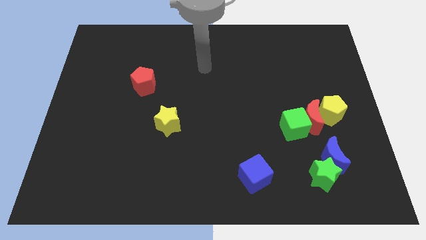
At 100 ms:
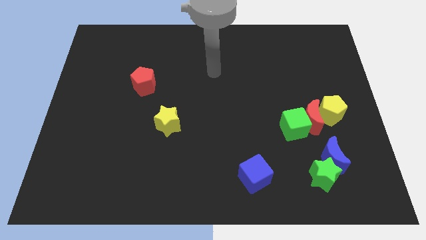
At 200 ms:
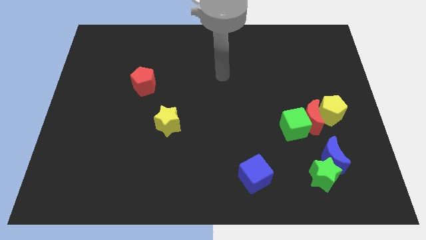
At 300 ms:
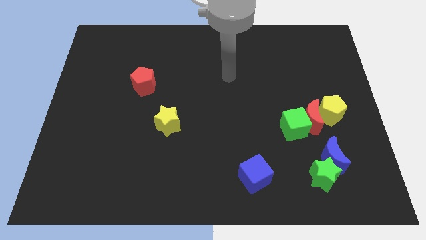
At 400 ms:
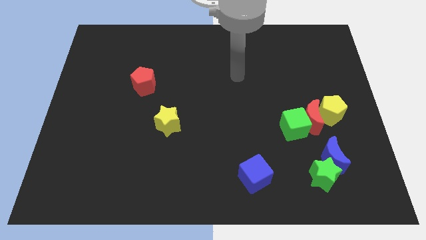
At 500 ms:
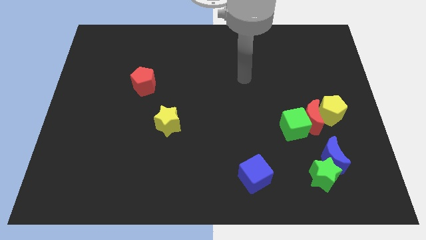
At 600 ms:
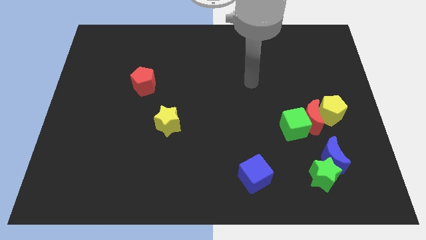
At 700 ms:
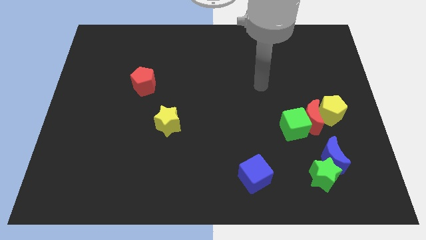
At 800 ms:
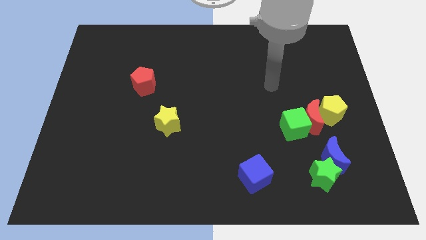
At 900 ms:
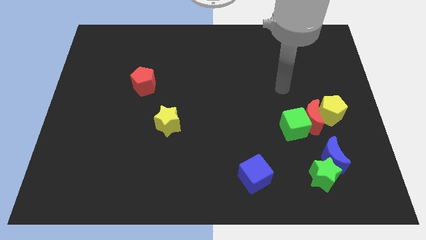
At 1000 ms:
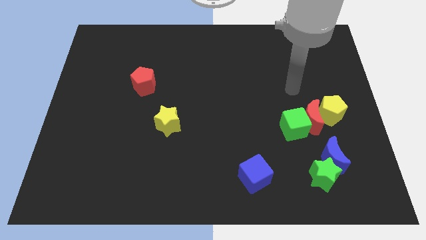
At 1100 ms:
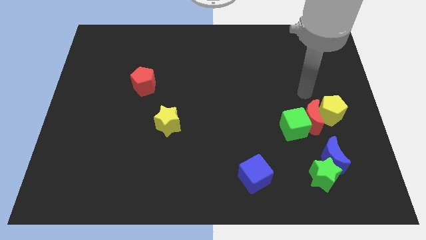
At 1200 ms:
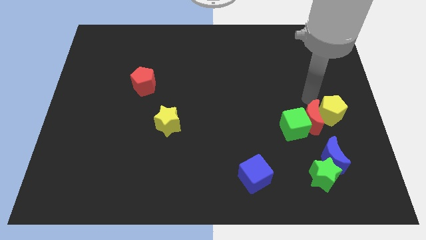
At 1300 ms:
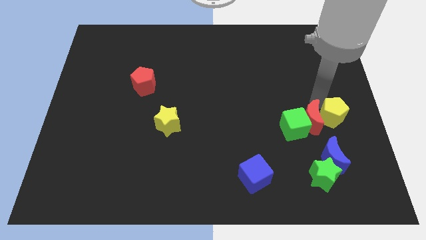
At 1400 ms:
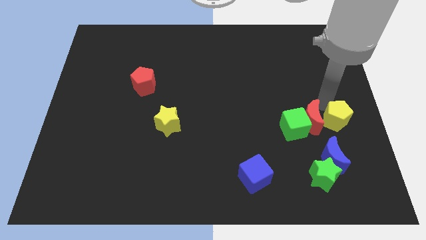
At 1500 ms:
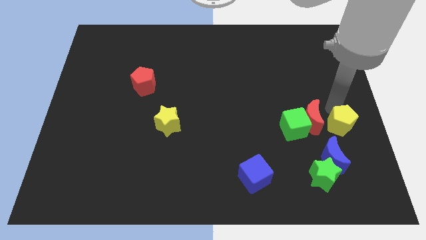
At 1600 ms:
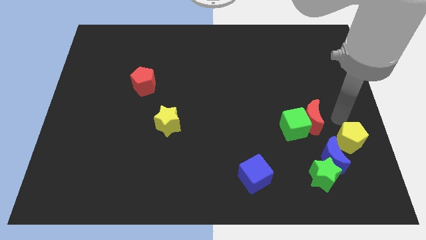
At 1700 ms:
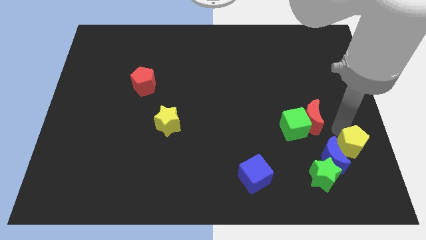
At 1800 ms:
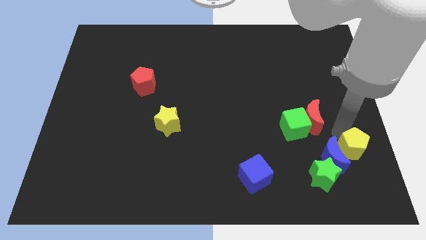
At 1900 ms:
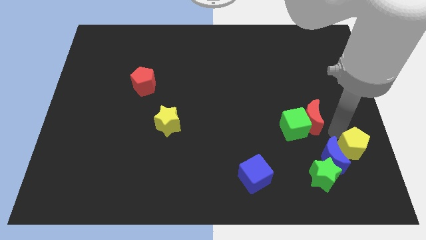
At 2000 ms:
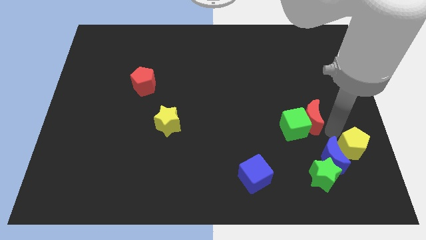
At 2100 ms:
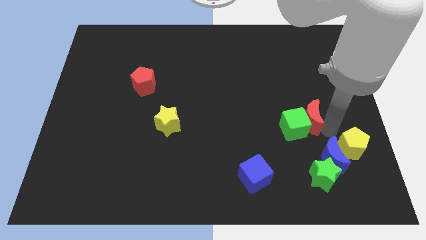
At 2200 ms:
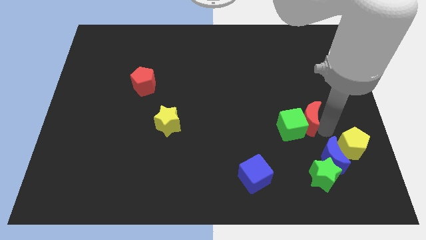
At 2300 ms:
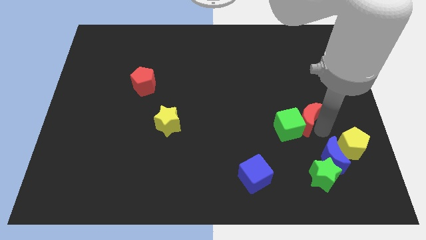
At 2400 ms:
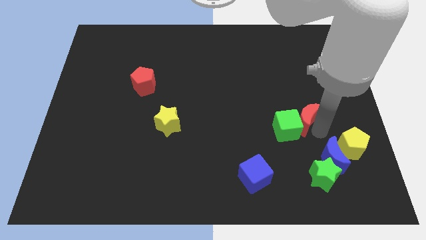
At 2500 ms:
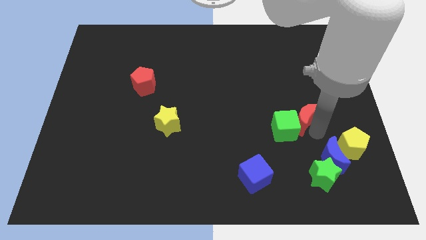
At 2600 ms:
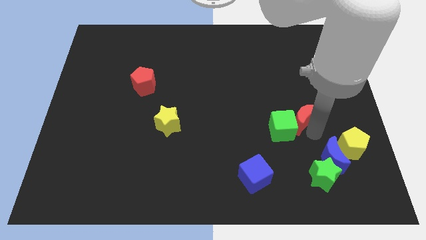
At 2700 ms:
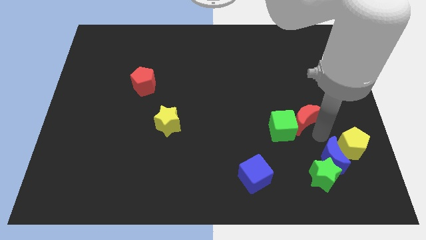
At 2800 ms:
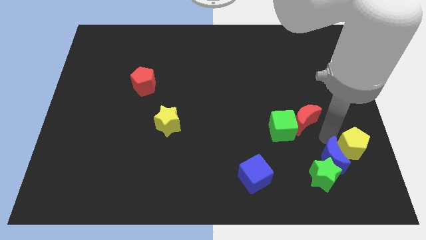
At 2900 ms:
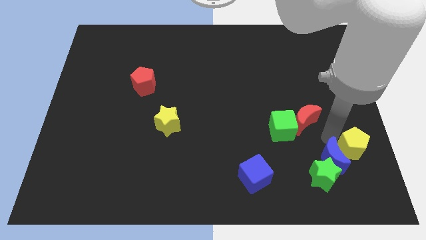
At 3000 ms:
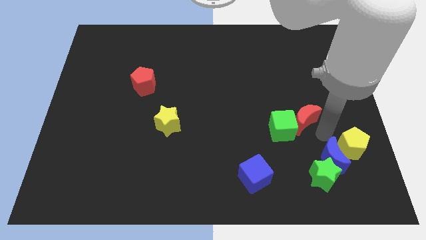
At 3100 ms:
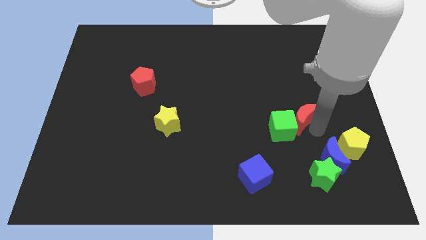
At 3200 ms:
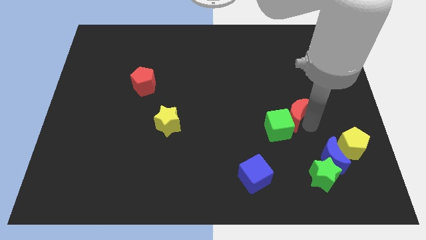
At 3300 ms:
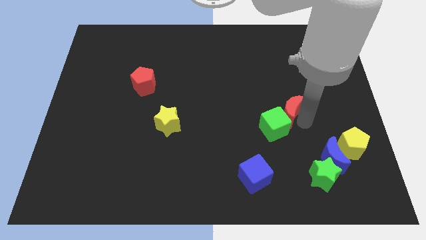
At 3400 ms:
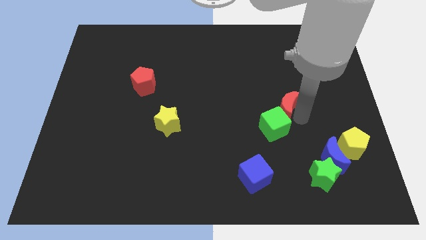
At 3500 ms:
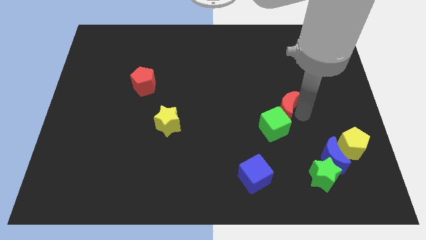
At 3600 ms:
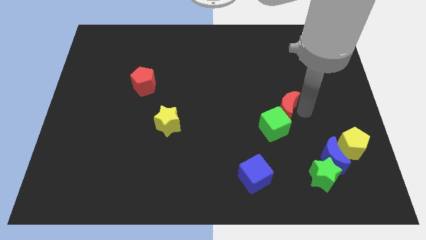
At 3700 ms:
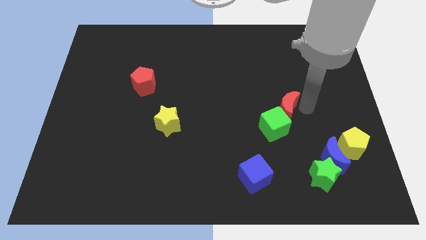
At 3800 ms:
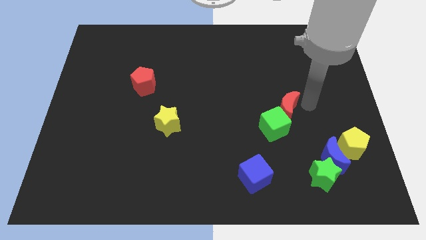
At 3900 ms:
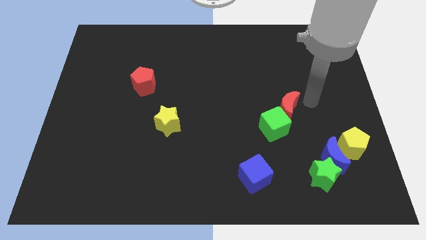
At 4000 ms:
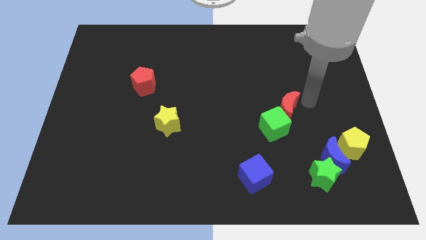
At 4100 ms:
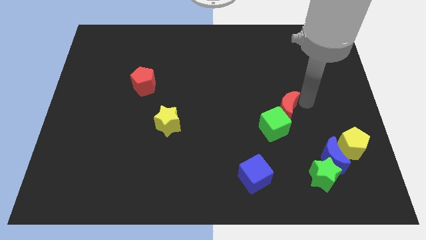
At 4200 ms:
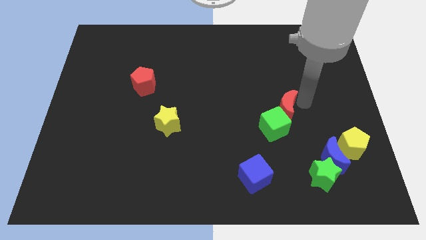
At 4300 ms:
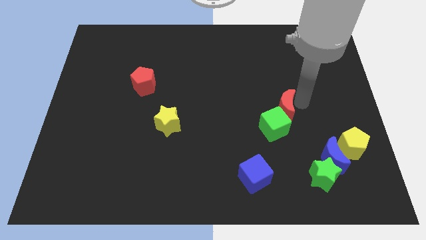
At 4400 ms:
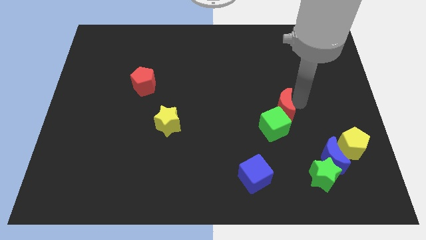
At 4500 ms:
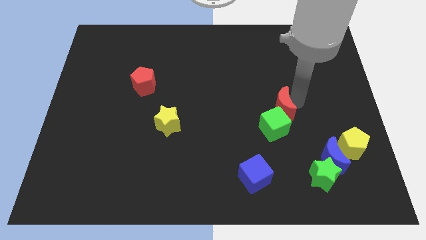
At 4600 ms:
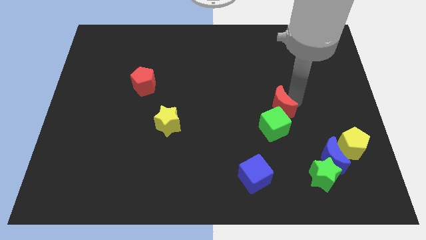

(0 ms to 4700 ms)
separate the red moon from the green cube and yellow pentagon

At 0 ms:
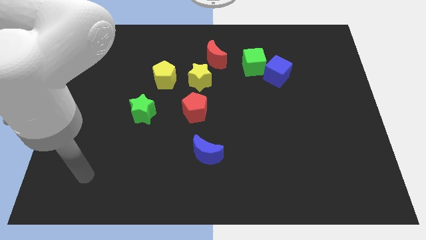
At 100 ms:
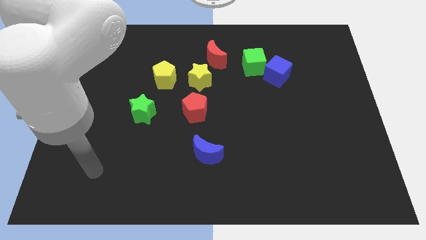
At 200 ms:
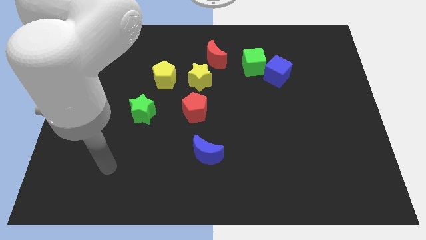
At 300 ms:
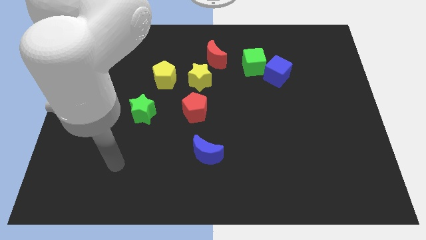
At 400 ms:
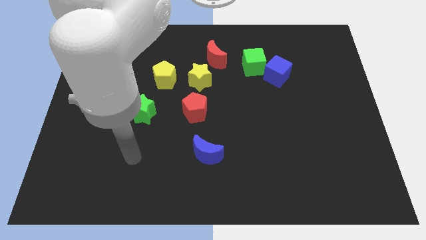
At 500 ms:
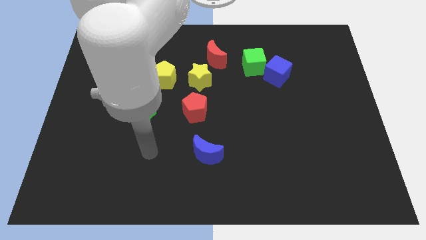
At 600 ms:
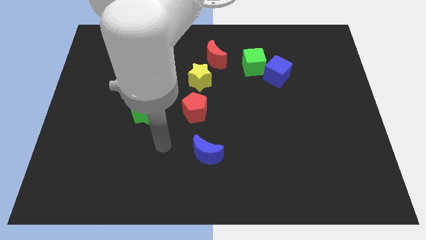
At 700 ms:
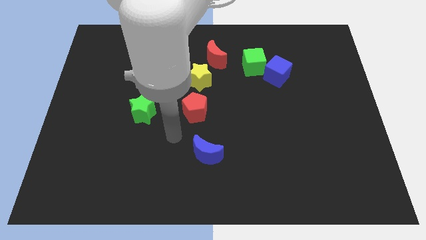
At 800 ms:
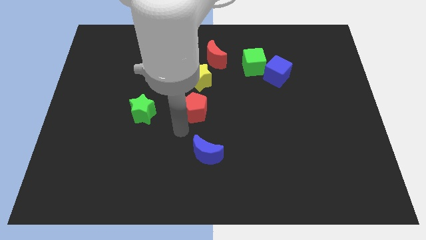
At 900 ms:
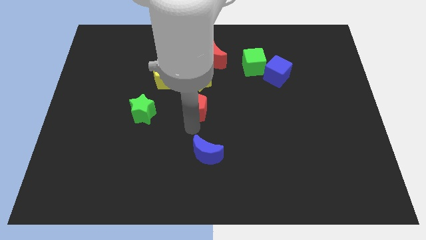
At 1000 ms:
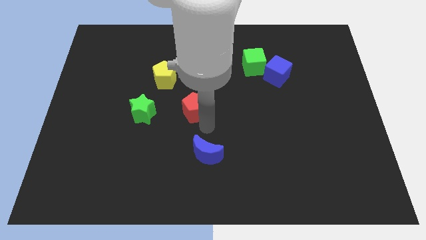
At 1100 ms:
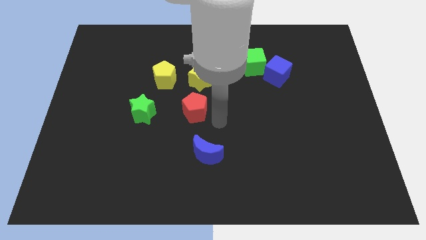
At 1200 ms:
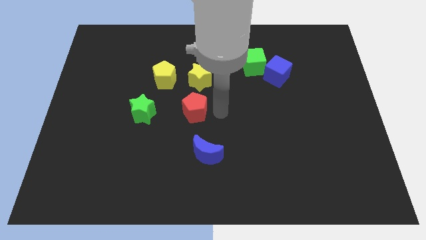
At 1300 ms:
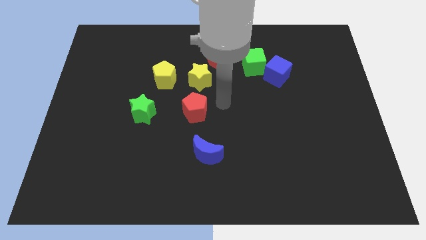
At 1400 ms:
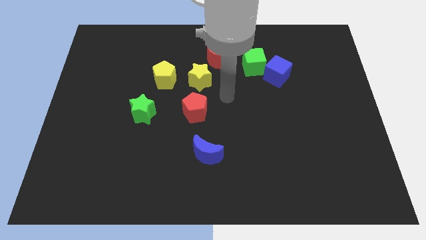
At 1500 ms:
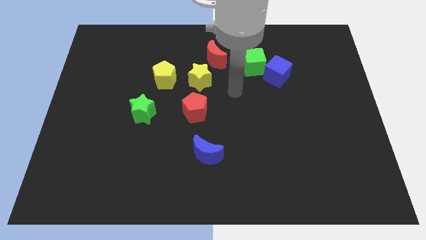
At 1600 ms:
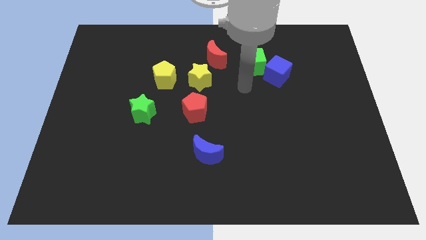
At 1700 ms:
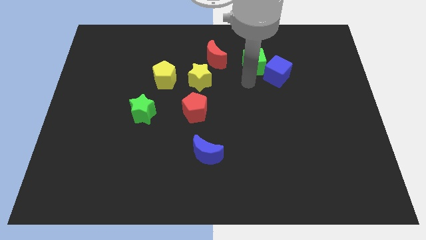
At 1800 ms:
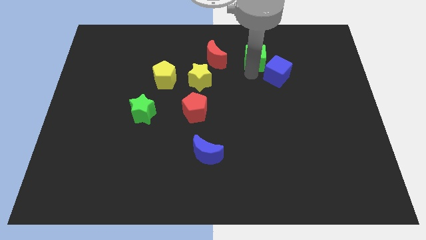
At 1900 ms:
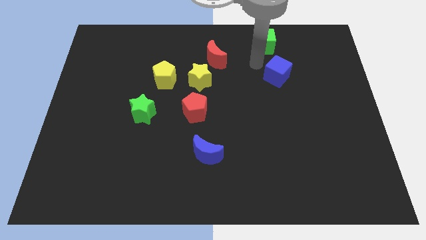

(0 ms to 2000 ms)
move the blue cube away from the green cube

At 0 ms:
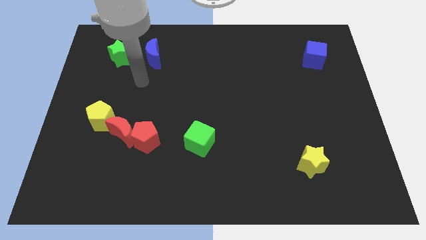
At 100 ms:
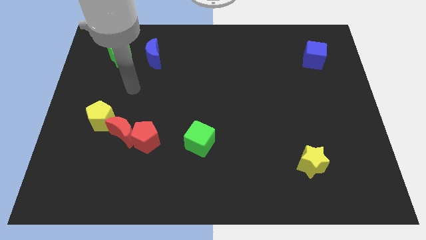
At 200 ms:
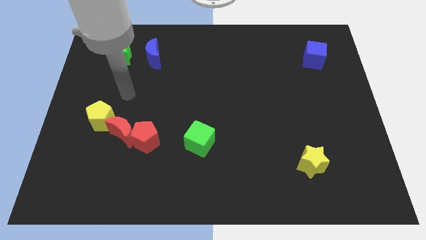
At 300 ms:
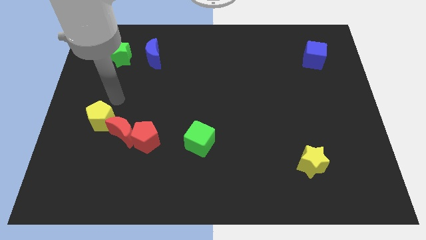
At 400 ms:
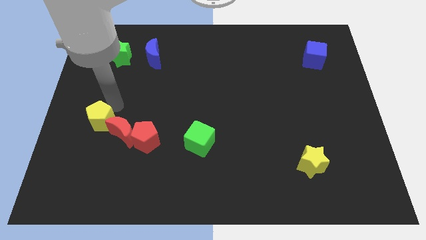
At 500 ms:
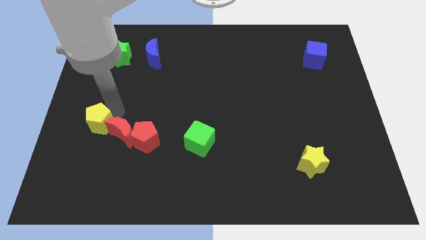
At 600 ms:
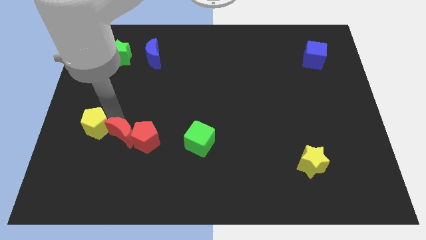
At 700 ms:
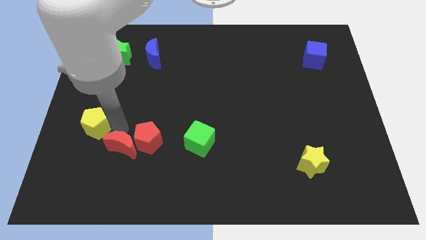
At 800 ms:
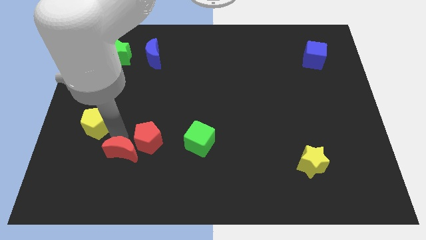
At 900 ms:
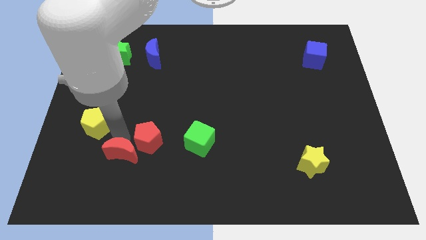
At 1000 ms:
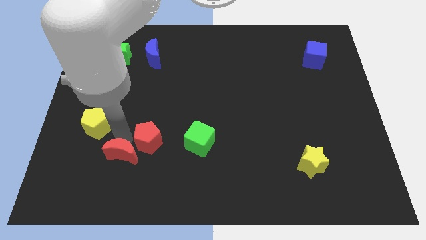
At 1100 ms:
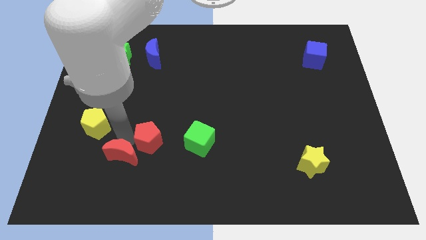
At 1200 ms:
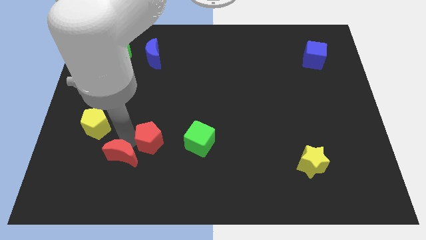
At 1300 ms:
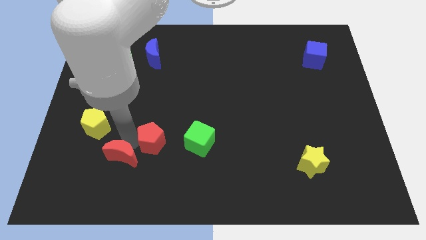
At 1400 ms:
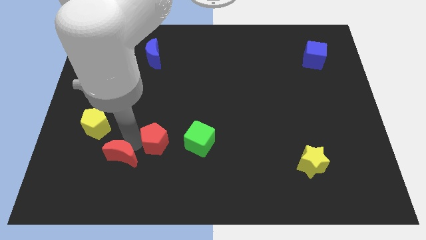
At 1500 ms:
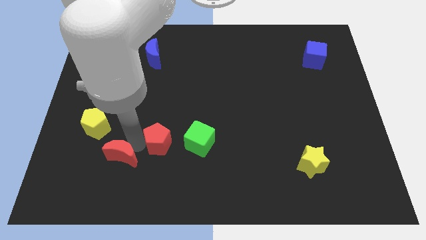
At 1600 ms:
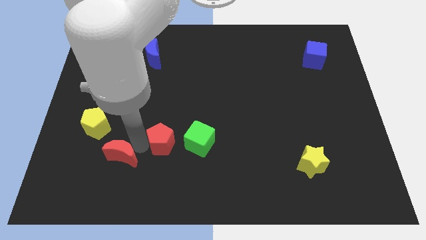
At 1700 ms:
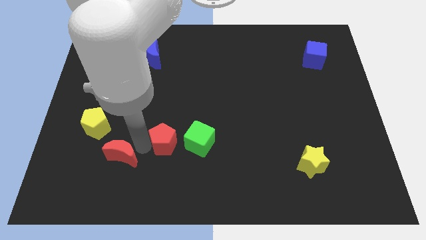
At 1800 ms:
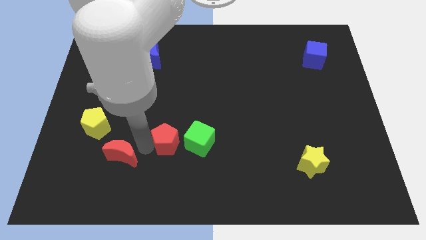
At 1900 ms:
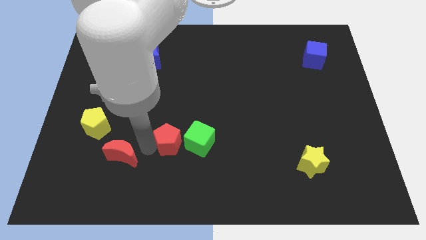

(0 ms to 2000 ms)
move the red pentagon away from the red moon

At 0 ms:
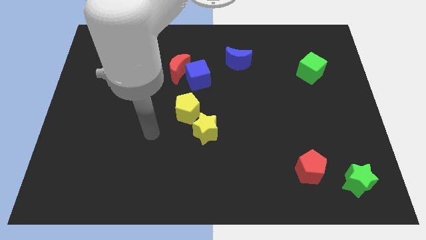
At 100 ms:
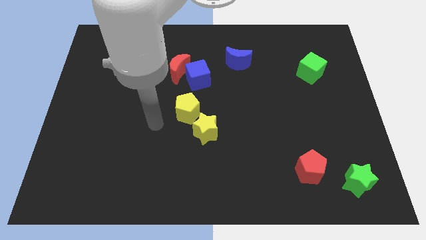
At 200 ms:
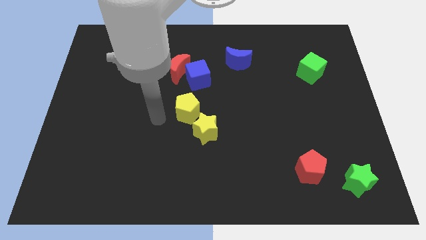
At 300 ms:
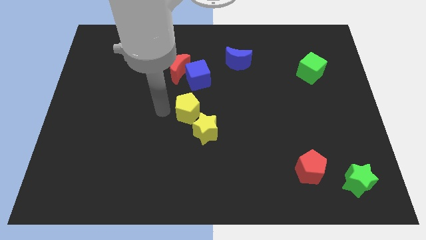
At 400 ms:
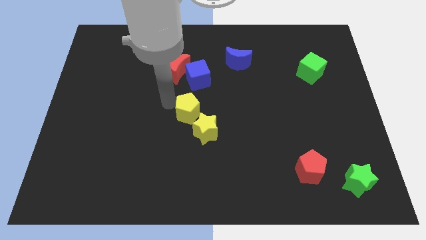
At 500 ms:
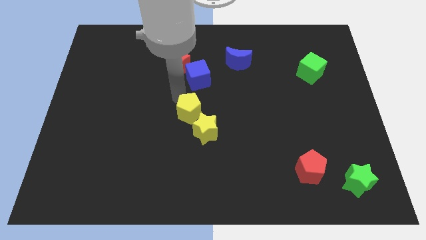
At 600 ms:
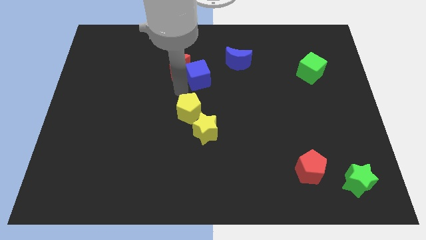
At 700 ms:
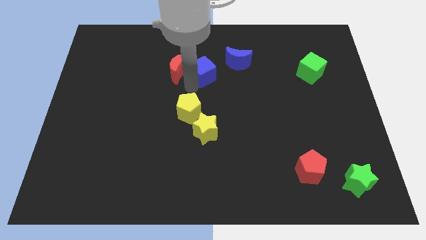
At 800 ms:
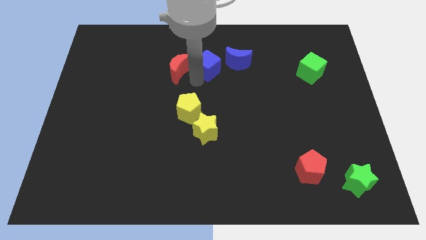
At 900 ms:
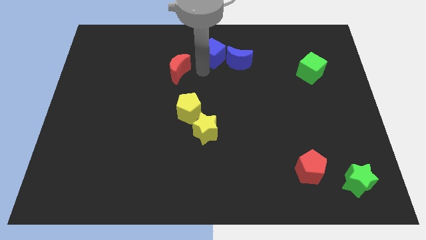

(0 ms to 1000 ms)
separate the red moon from the blue cube
